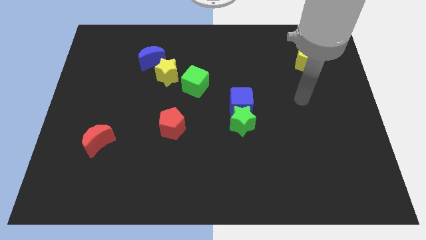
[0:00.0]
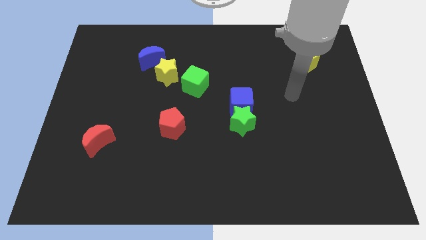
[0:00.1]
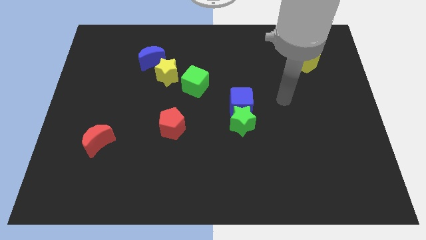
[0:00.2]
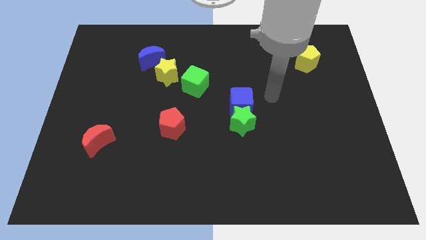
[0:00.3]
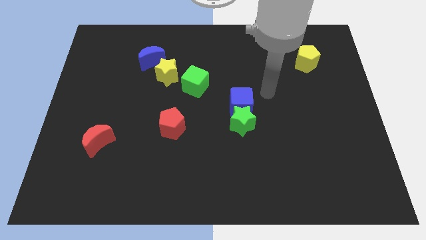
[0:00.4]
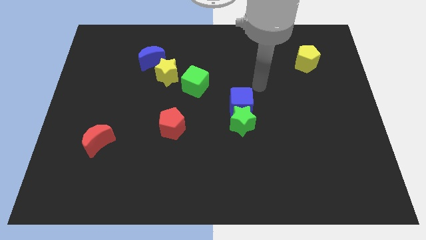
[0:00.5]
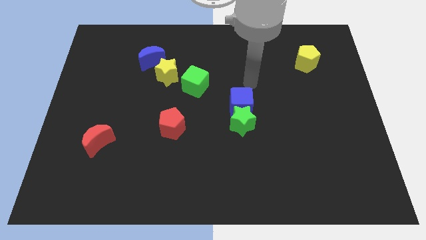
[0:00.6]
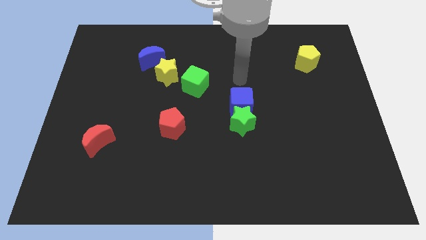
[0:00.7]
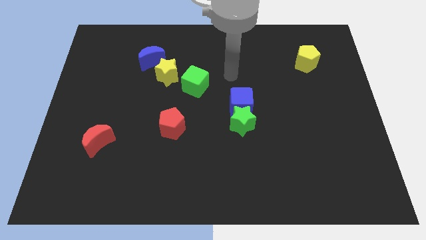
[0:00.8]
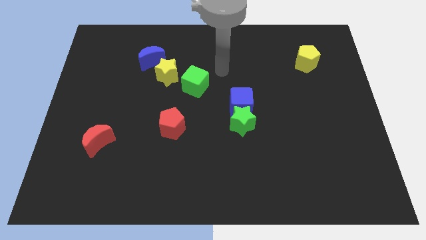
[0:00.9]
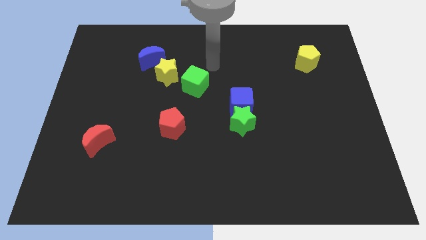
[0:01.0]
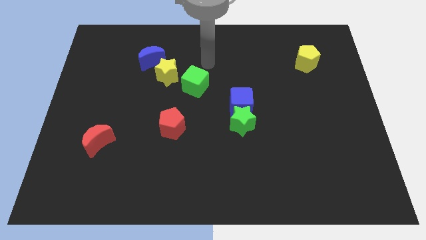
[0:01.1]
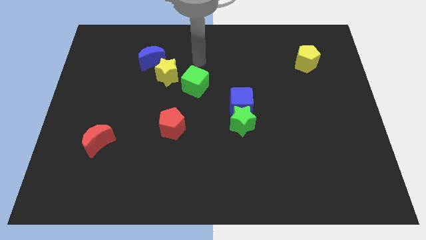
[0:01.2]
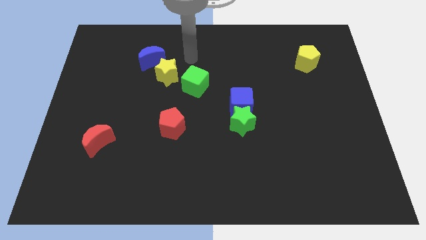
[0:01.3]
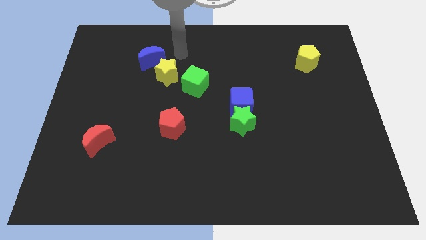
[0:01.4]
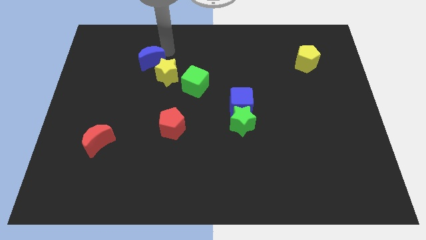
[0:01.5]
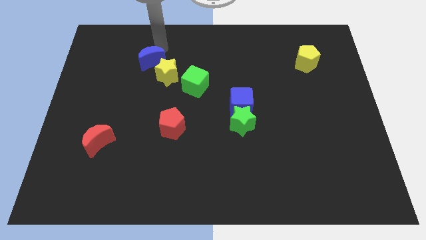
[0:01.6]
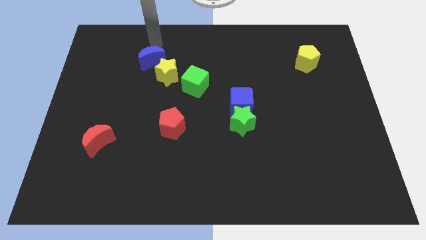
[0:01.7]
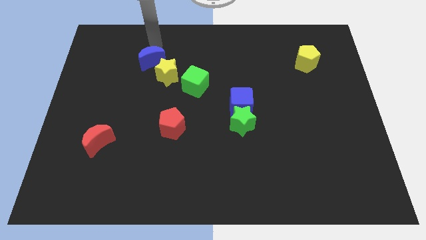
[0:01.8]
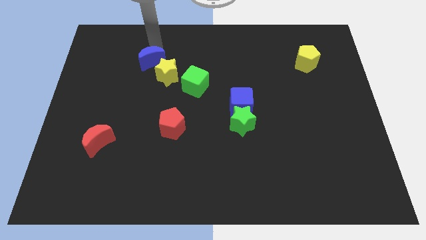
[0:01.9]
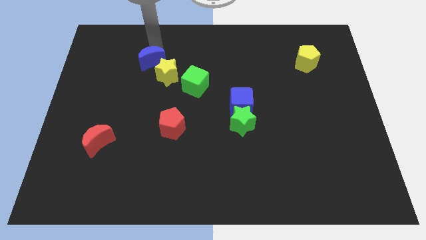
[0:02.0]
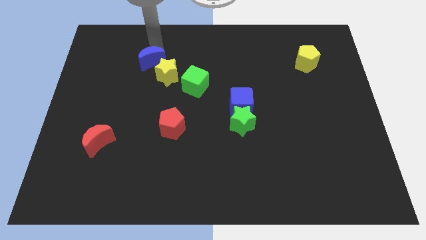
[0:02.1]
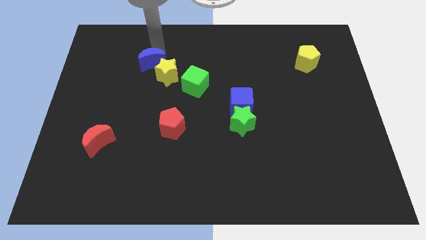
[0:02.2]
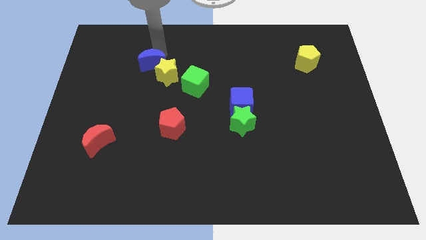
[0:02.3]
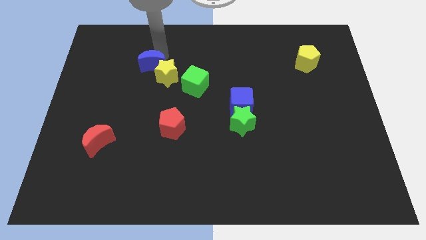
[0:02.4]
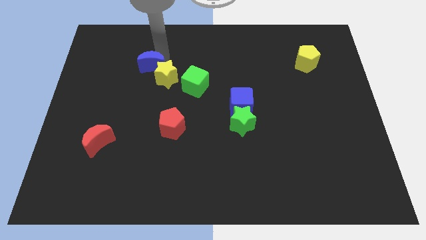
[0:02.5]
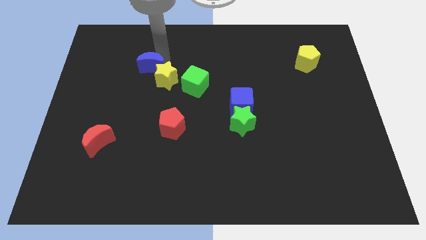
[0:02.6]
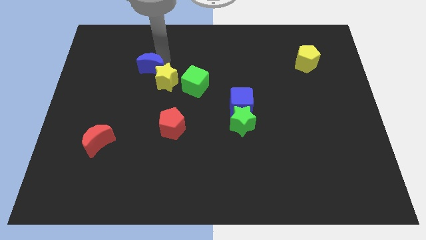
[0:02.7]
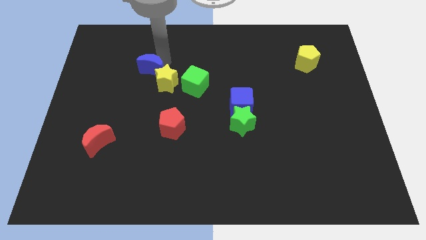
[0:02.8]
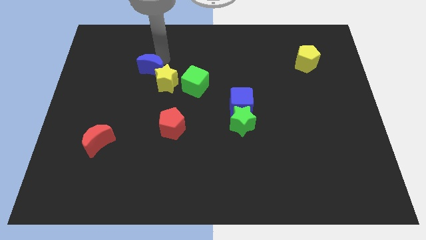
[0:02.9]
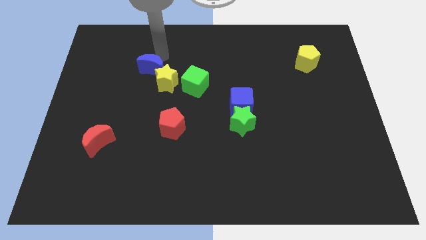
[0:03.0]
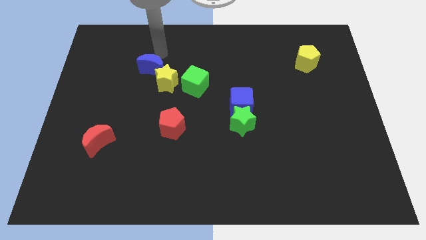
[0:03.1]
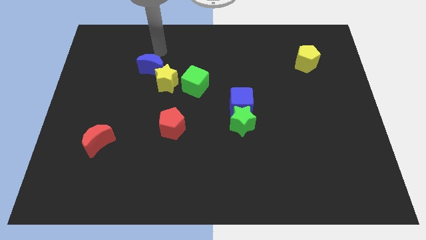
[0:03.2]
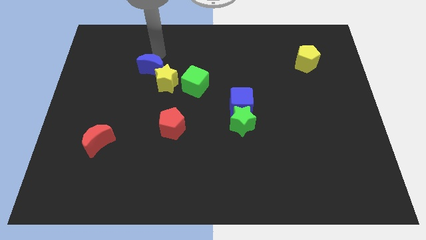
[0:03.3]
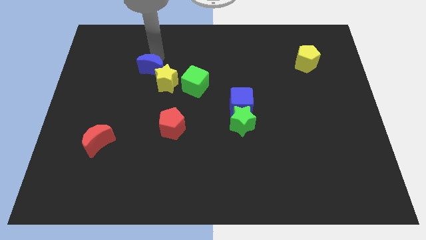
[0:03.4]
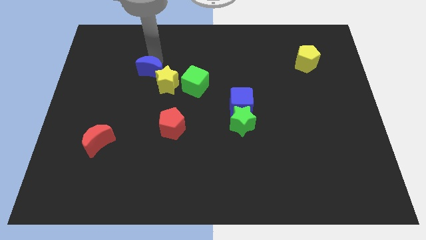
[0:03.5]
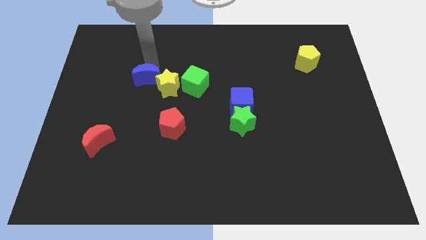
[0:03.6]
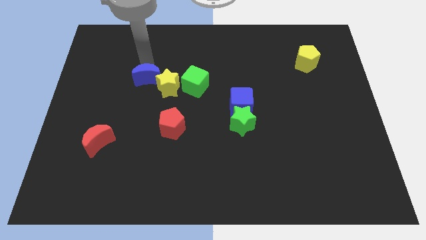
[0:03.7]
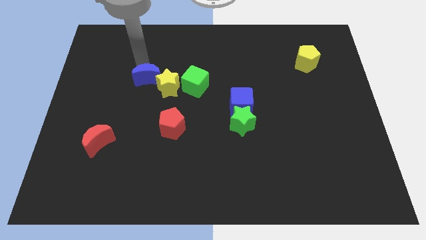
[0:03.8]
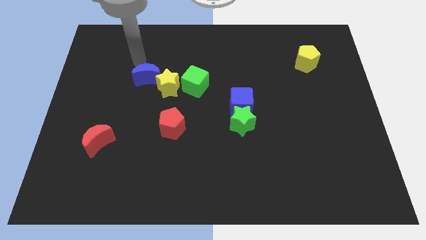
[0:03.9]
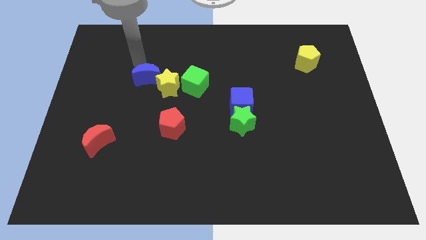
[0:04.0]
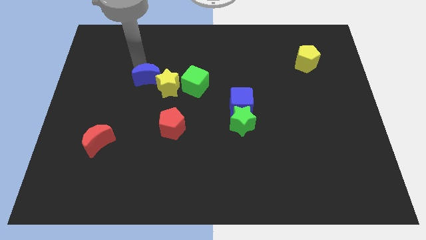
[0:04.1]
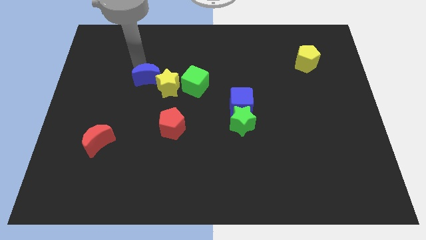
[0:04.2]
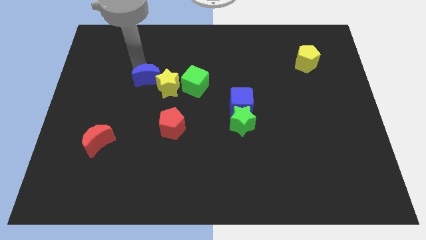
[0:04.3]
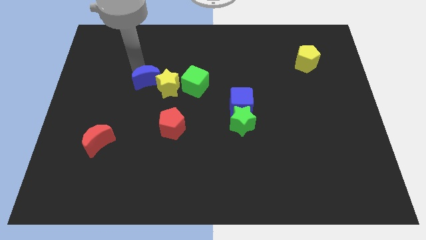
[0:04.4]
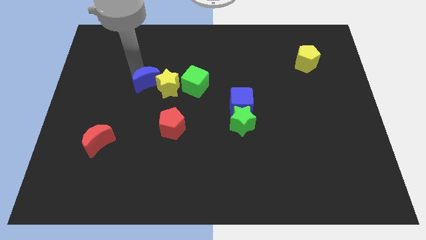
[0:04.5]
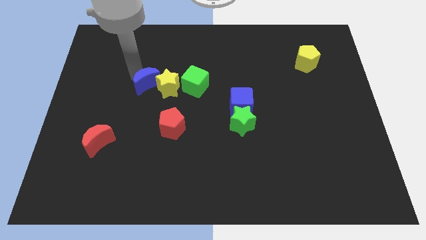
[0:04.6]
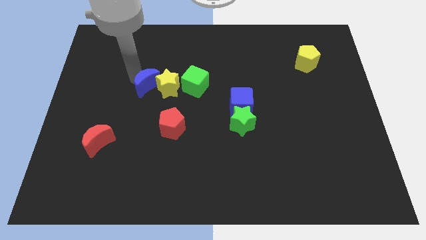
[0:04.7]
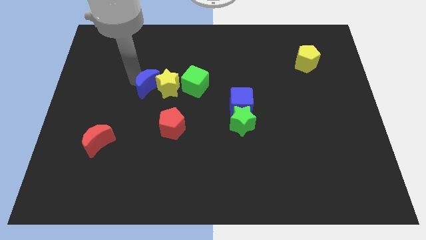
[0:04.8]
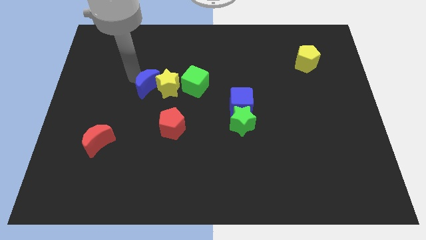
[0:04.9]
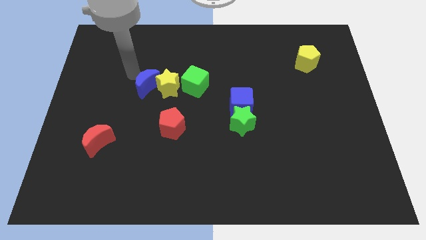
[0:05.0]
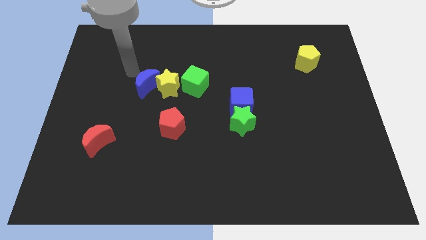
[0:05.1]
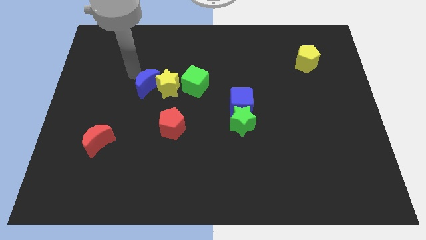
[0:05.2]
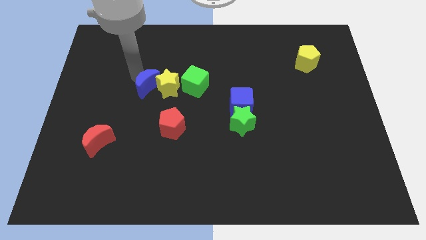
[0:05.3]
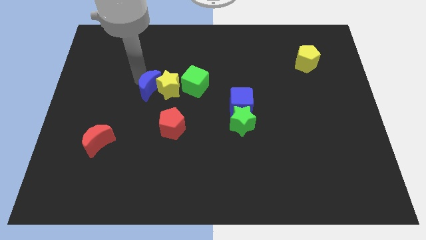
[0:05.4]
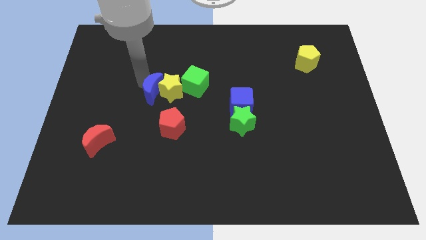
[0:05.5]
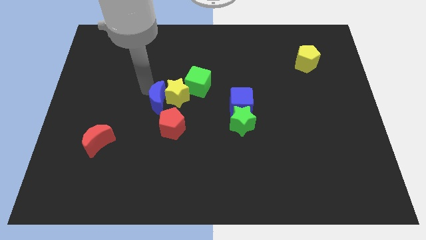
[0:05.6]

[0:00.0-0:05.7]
slightly move the blue moon down and right diagonally

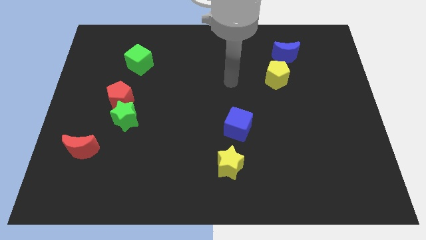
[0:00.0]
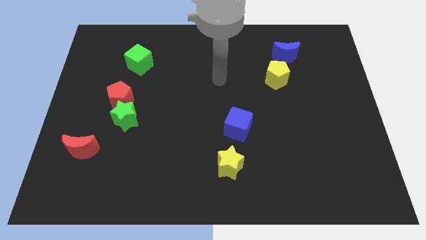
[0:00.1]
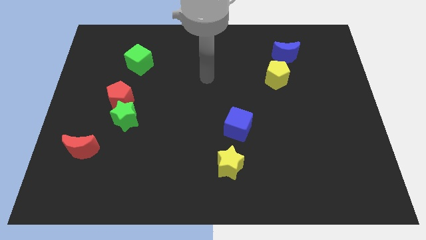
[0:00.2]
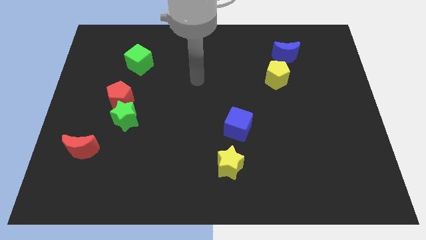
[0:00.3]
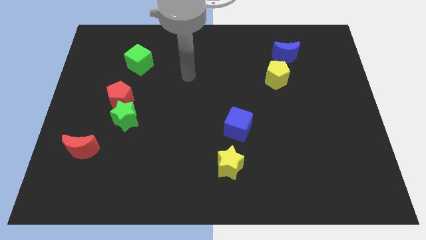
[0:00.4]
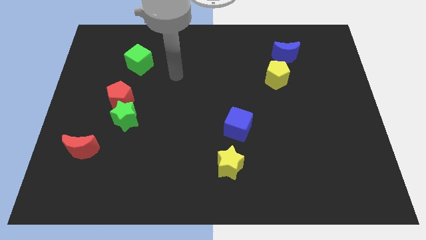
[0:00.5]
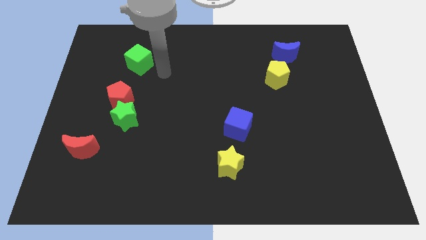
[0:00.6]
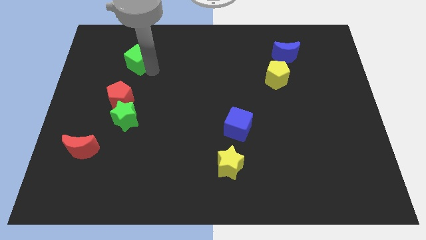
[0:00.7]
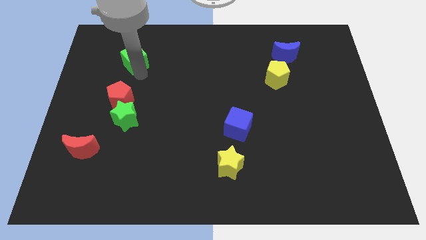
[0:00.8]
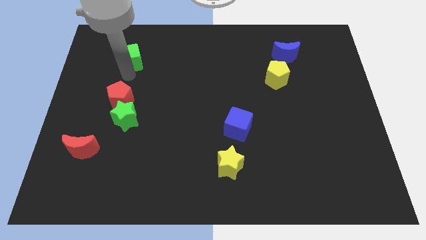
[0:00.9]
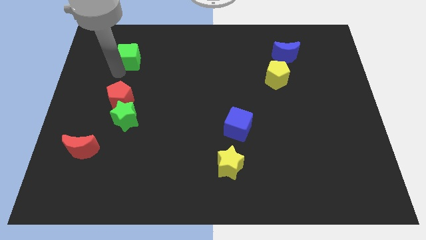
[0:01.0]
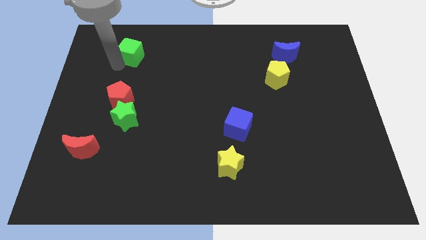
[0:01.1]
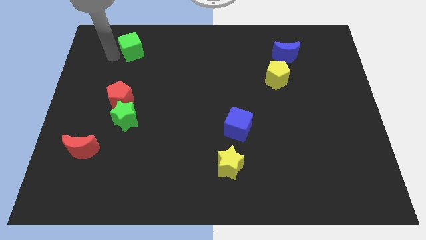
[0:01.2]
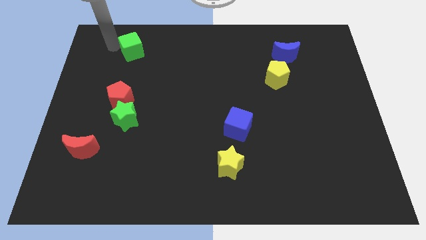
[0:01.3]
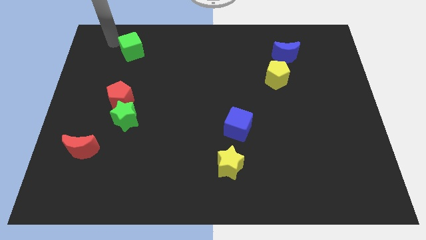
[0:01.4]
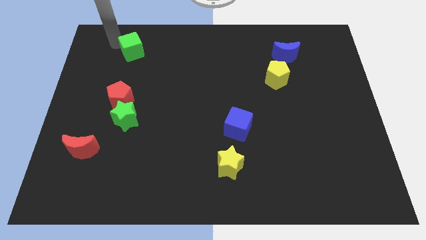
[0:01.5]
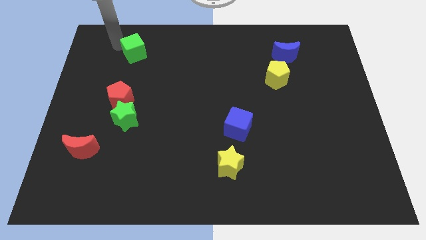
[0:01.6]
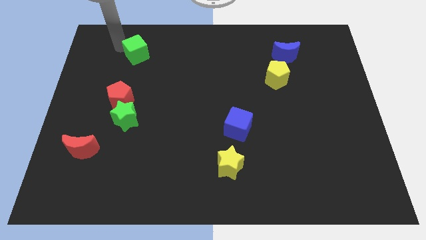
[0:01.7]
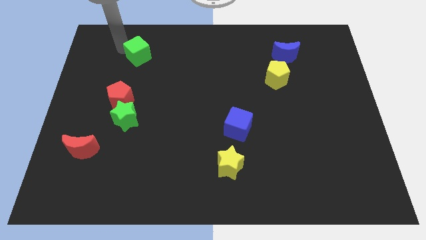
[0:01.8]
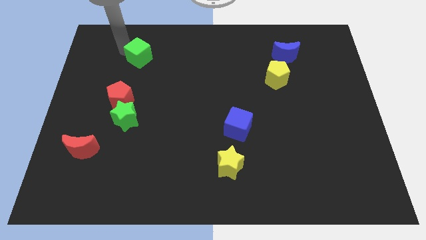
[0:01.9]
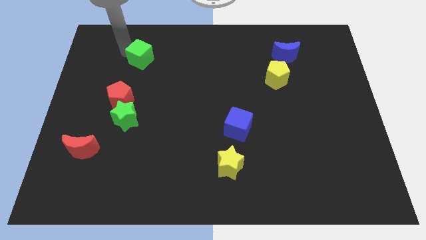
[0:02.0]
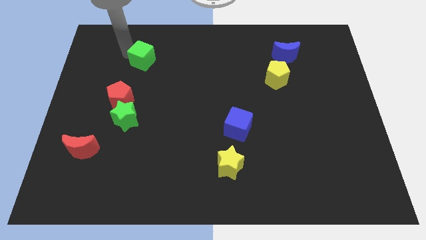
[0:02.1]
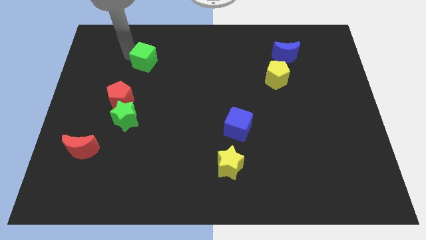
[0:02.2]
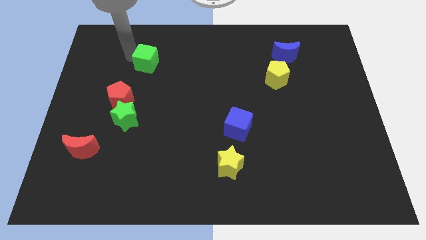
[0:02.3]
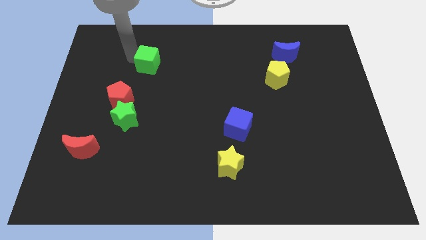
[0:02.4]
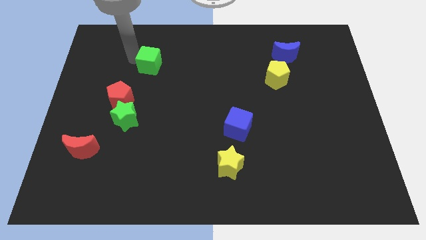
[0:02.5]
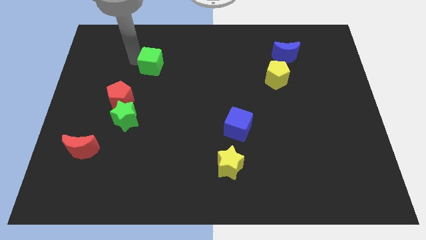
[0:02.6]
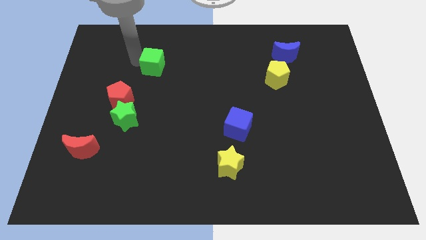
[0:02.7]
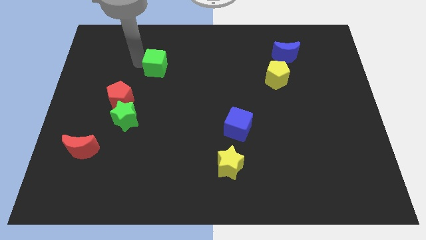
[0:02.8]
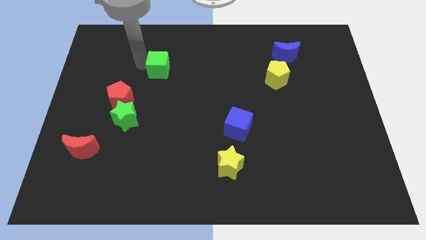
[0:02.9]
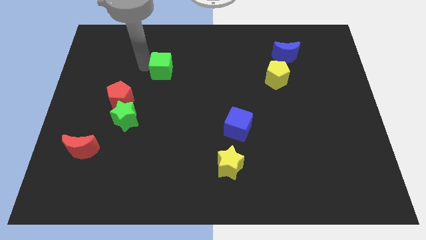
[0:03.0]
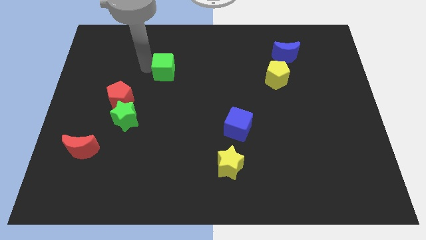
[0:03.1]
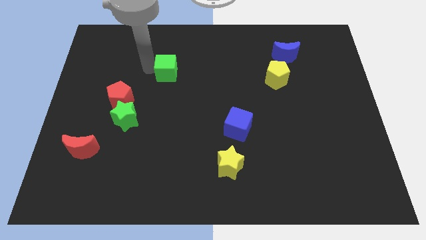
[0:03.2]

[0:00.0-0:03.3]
push the green cube right a bit
